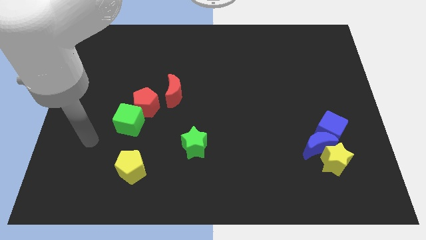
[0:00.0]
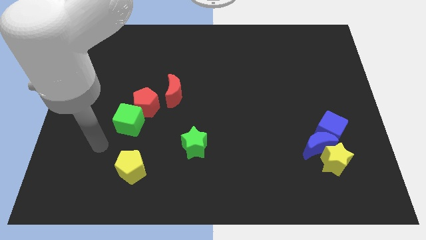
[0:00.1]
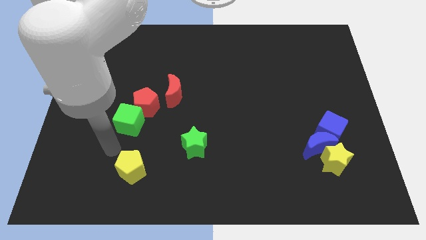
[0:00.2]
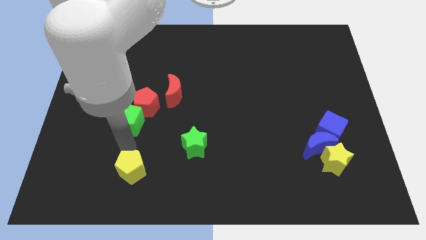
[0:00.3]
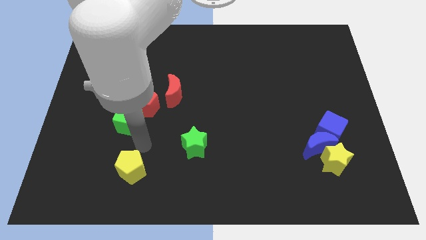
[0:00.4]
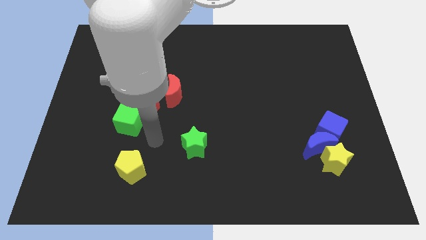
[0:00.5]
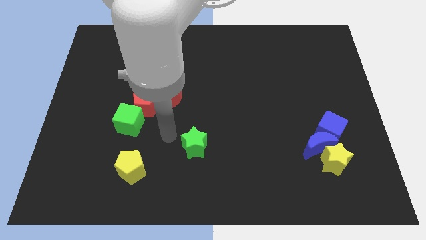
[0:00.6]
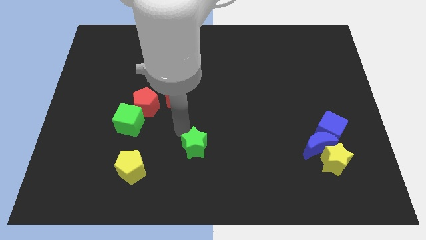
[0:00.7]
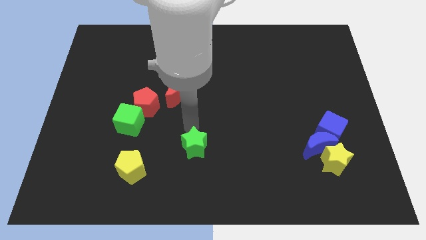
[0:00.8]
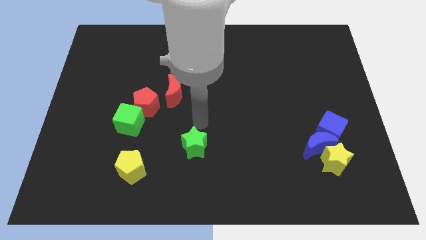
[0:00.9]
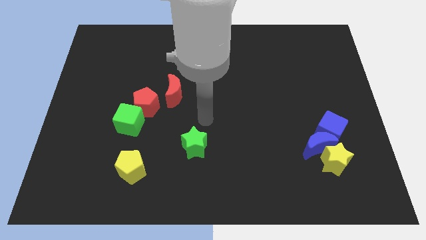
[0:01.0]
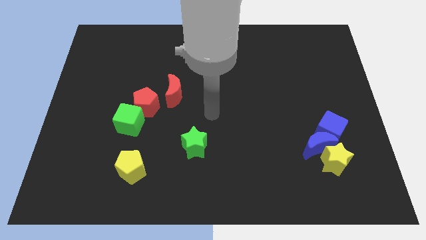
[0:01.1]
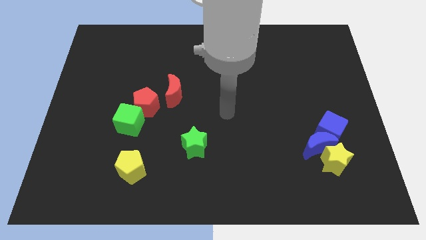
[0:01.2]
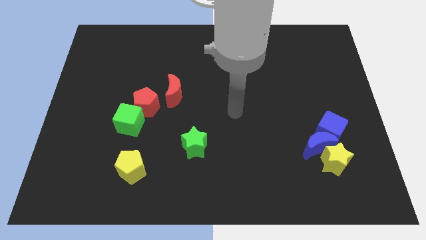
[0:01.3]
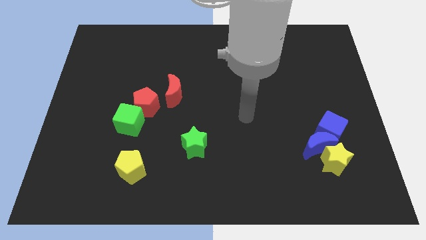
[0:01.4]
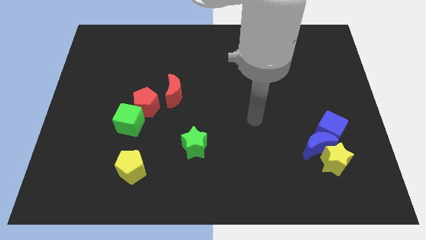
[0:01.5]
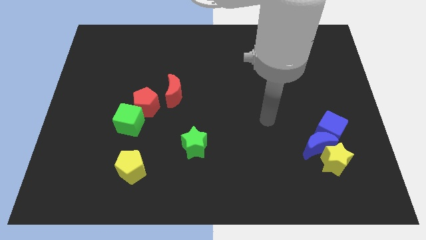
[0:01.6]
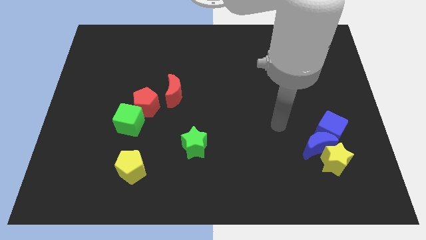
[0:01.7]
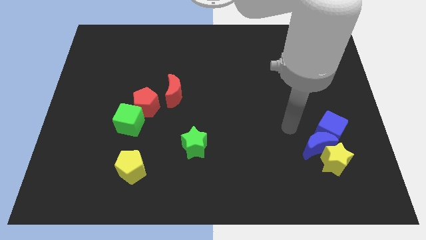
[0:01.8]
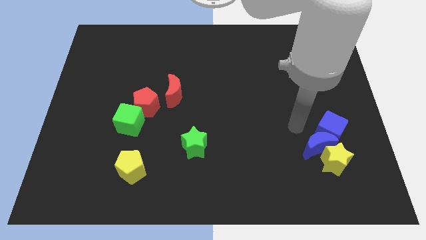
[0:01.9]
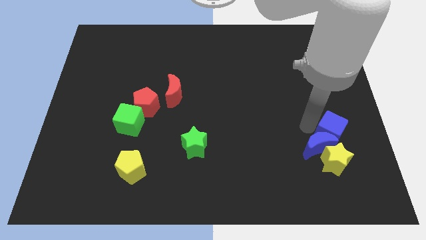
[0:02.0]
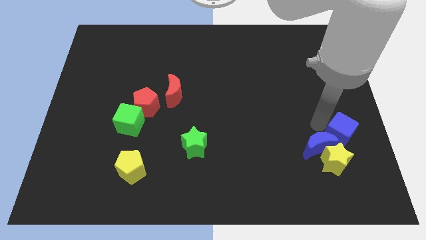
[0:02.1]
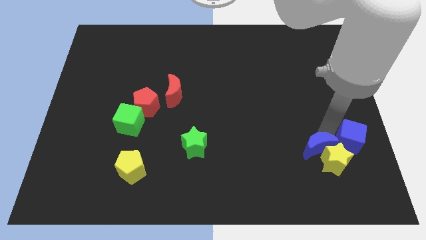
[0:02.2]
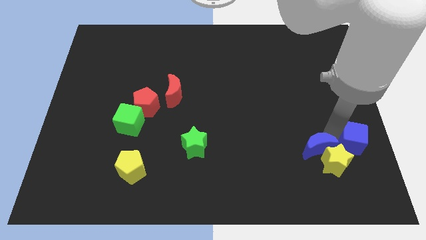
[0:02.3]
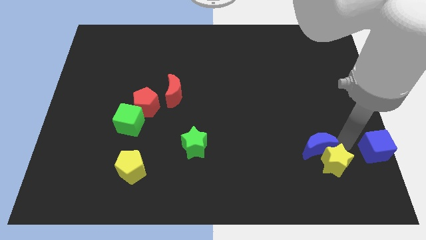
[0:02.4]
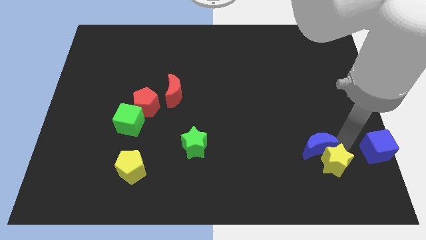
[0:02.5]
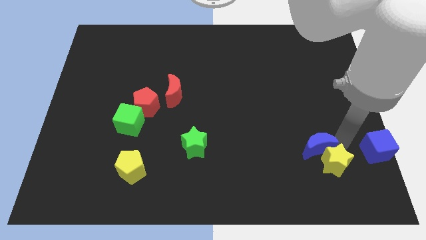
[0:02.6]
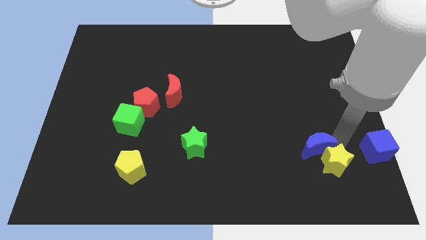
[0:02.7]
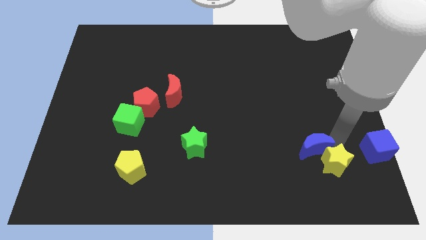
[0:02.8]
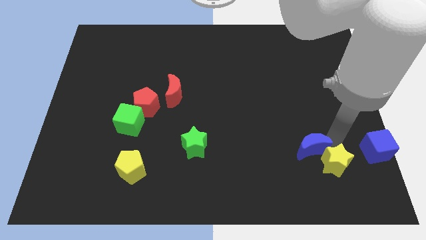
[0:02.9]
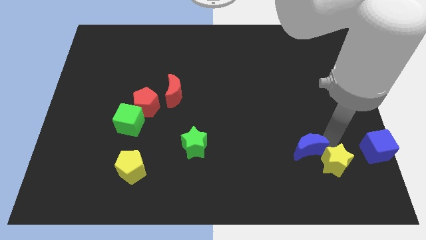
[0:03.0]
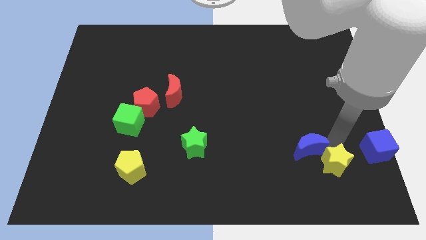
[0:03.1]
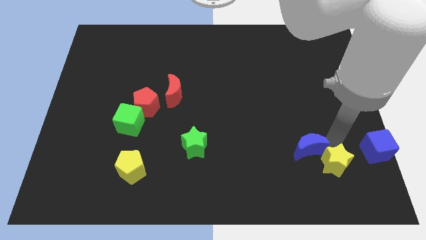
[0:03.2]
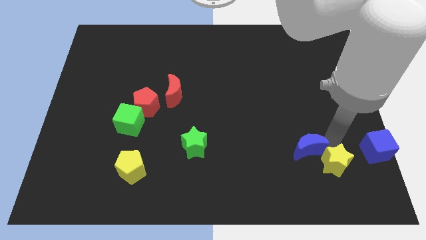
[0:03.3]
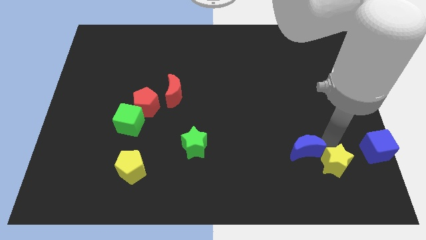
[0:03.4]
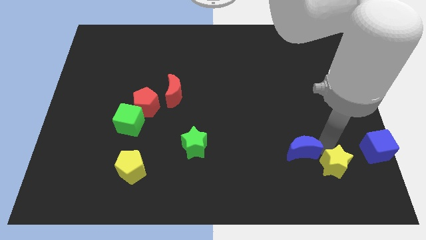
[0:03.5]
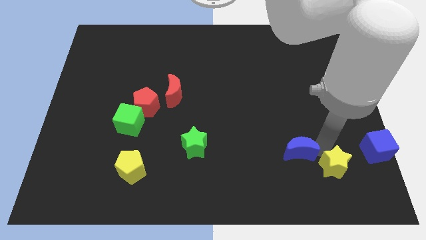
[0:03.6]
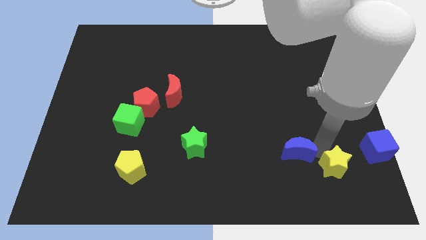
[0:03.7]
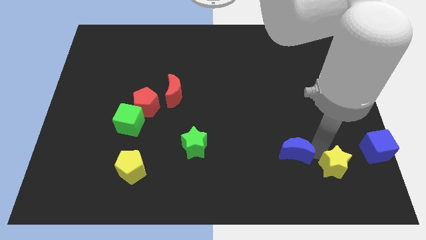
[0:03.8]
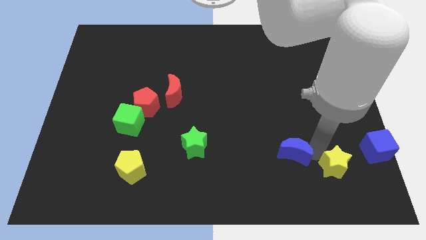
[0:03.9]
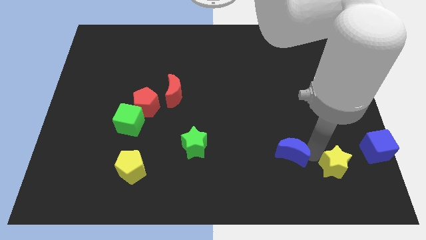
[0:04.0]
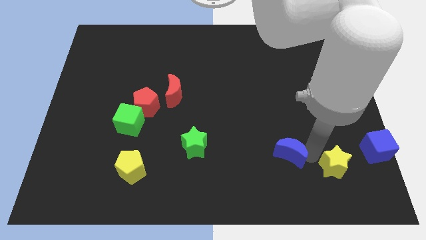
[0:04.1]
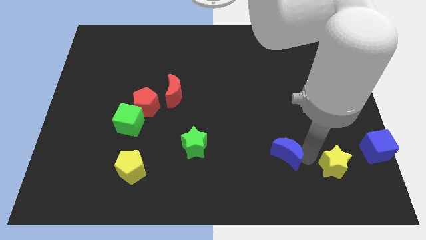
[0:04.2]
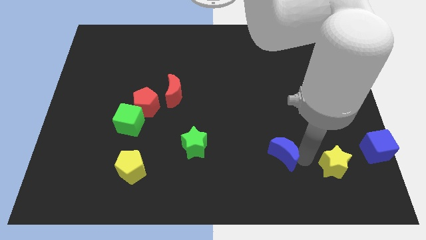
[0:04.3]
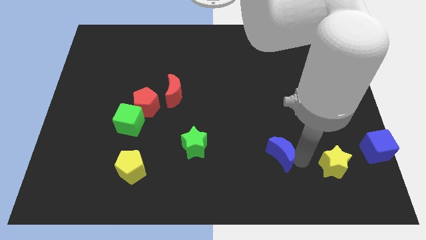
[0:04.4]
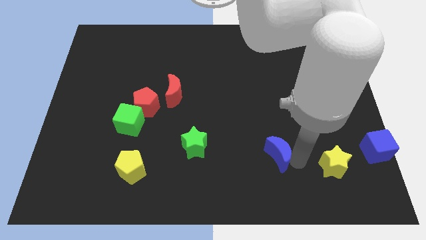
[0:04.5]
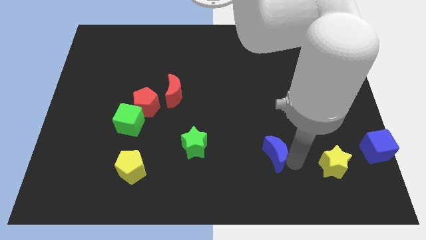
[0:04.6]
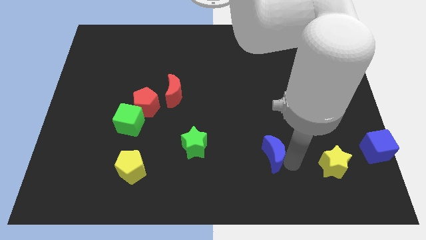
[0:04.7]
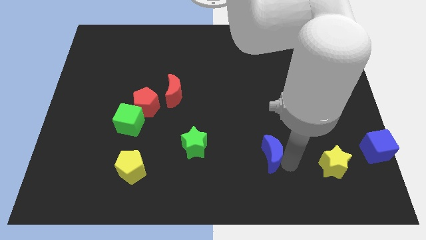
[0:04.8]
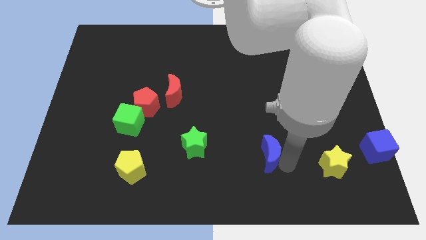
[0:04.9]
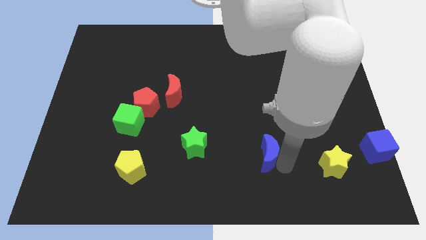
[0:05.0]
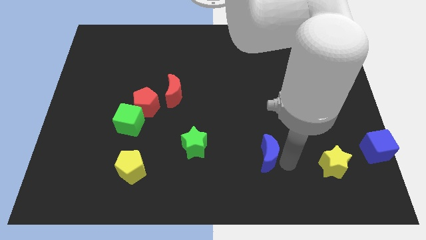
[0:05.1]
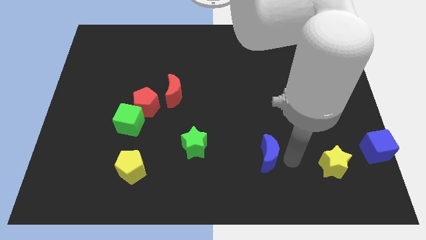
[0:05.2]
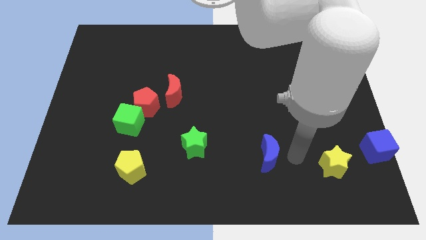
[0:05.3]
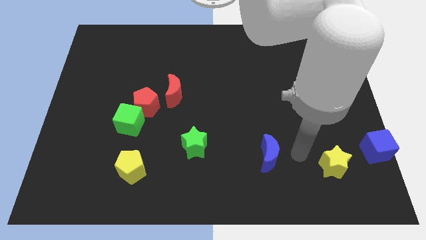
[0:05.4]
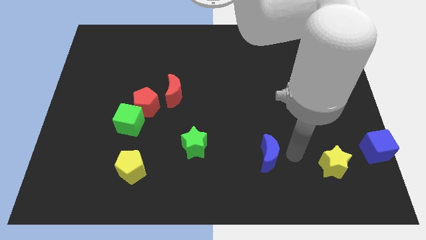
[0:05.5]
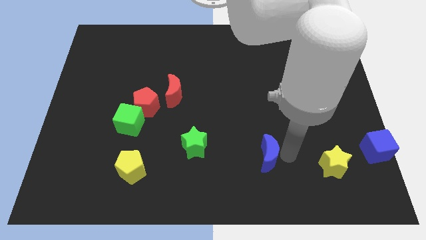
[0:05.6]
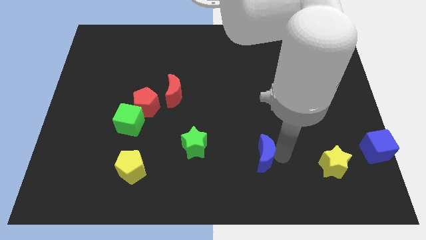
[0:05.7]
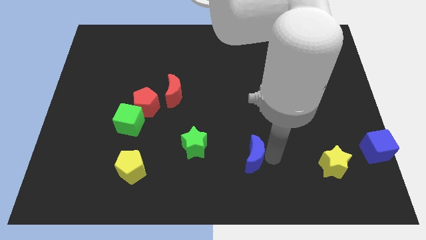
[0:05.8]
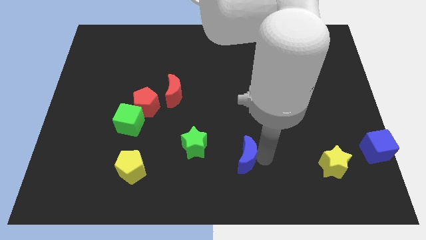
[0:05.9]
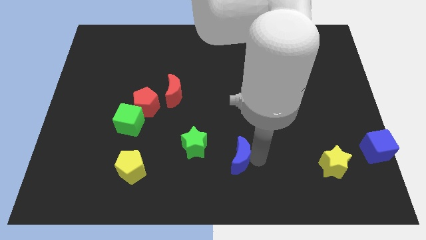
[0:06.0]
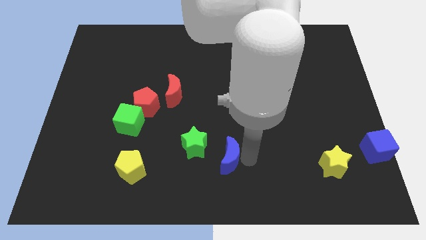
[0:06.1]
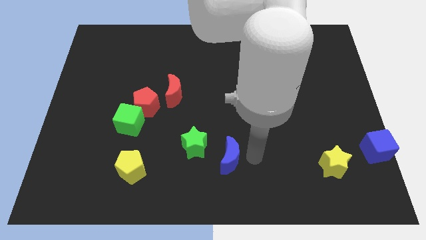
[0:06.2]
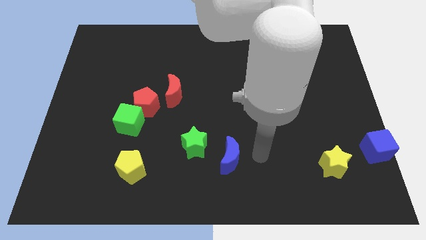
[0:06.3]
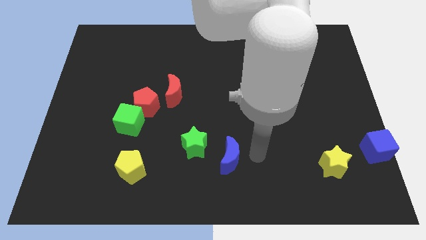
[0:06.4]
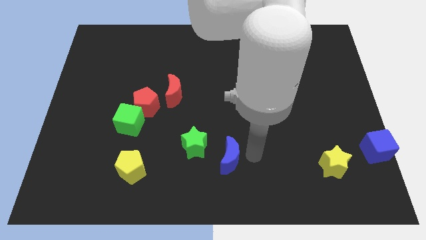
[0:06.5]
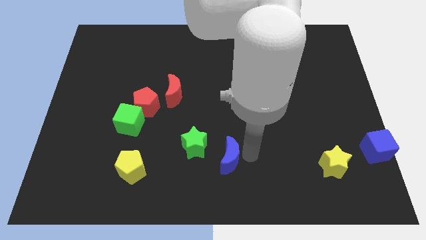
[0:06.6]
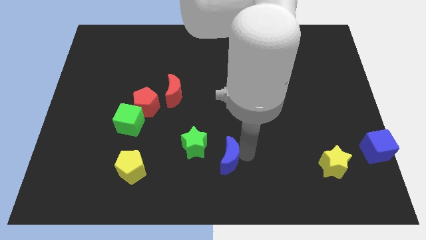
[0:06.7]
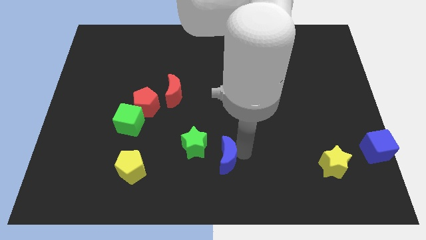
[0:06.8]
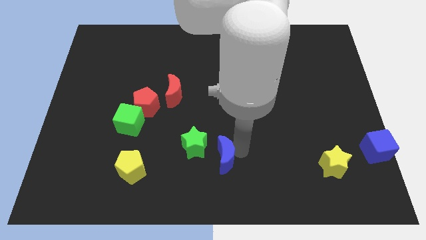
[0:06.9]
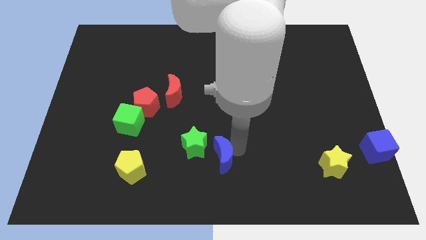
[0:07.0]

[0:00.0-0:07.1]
push the blue moon to the left

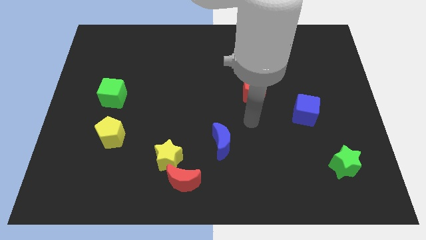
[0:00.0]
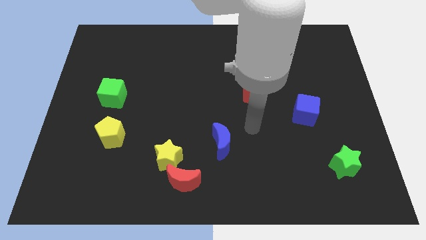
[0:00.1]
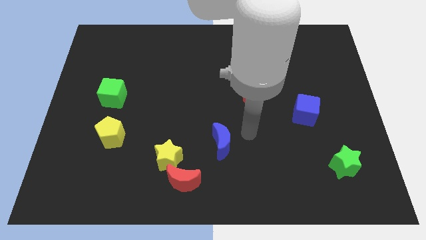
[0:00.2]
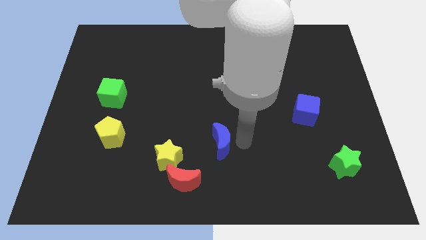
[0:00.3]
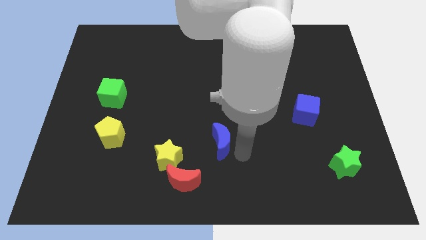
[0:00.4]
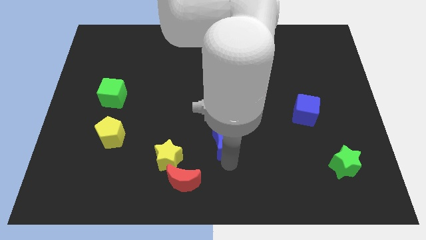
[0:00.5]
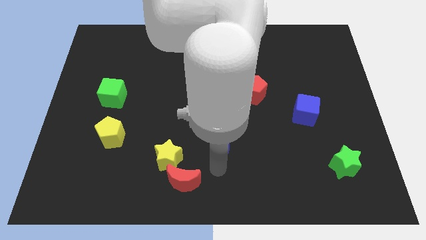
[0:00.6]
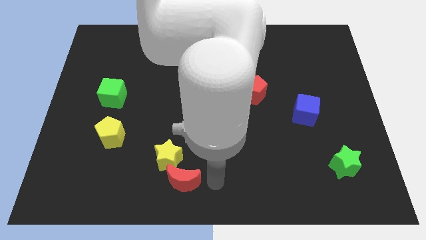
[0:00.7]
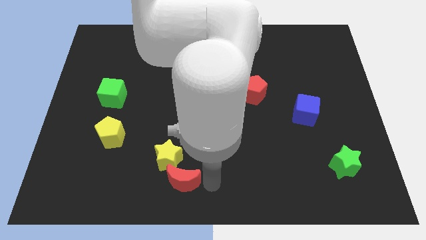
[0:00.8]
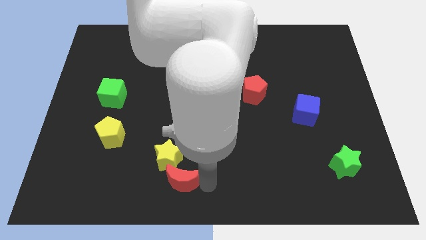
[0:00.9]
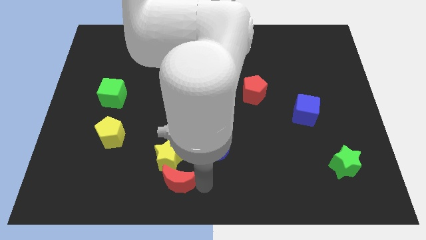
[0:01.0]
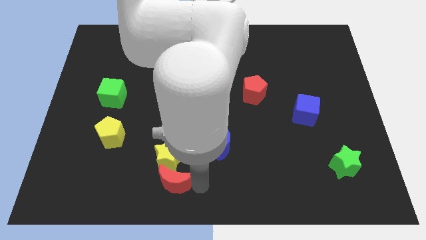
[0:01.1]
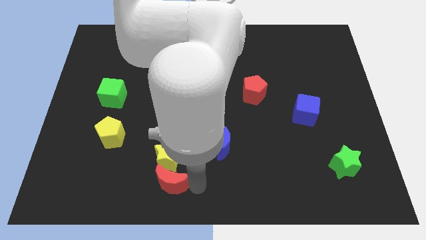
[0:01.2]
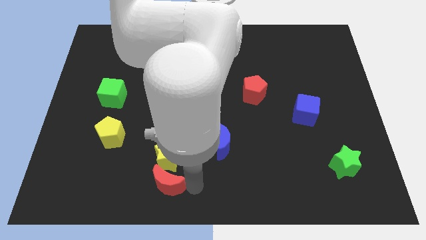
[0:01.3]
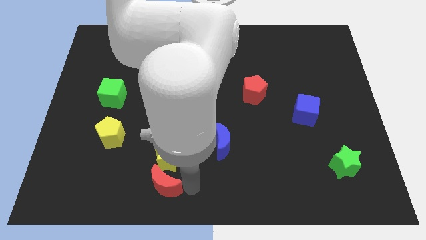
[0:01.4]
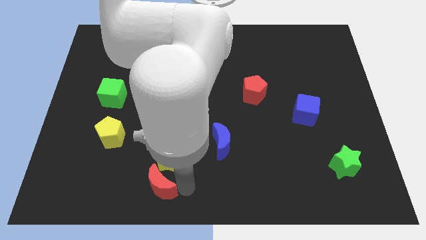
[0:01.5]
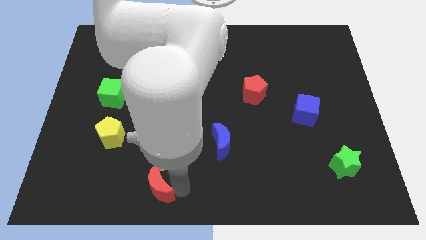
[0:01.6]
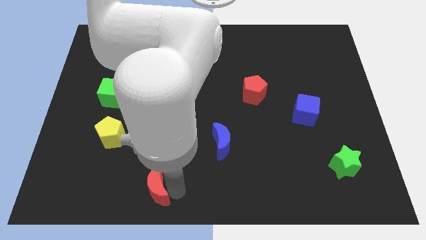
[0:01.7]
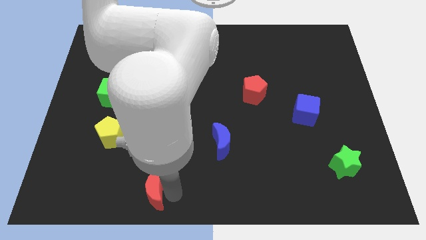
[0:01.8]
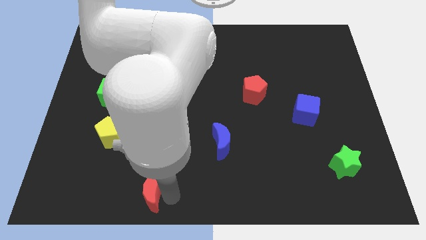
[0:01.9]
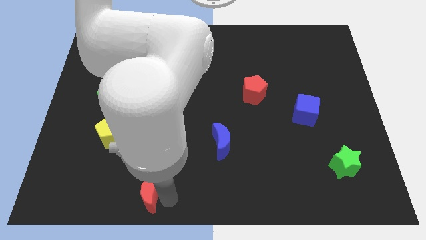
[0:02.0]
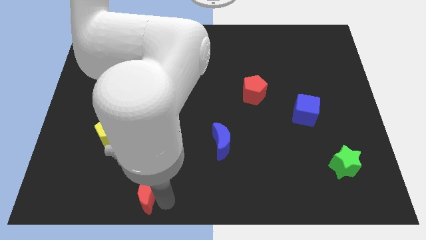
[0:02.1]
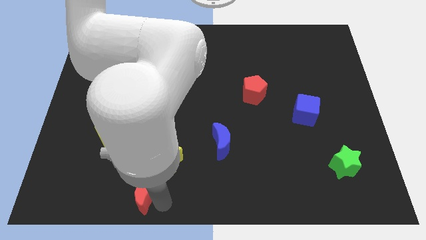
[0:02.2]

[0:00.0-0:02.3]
slightly push the red moon to the left
